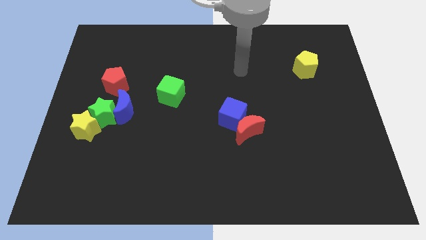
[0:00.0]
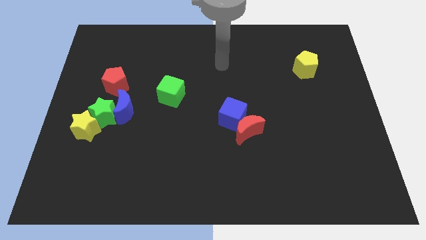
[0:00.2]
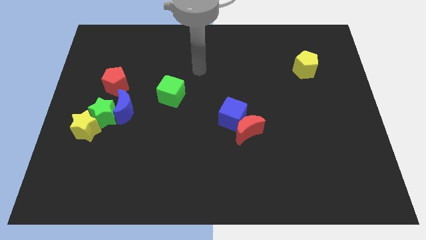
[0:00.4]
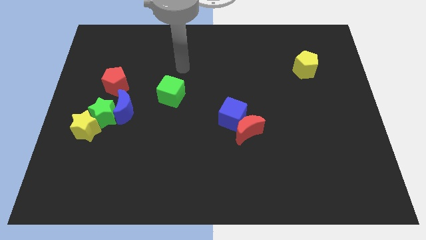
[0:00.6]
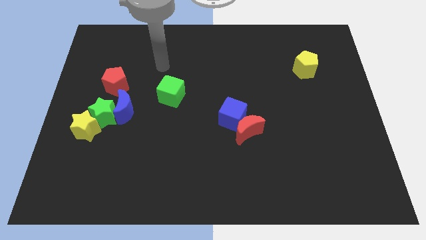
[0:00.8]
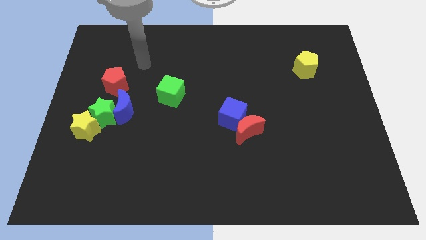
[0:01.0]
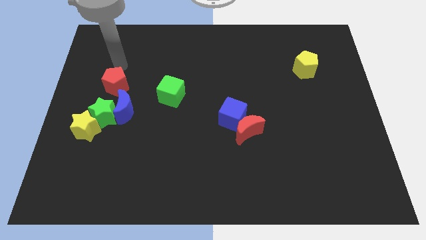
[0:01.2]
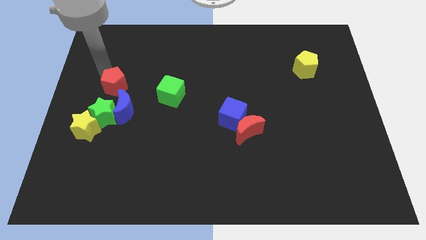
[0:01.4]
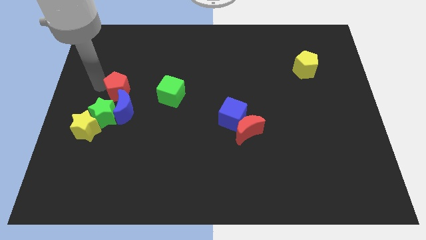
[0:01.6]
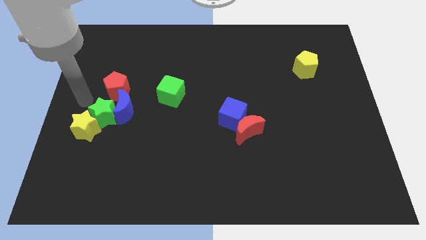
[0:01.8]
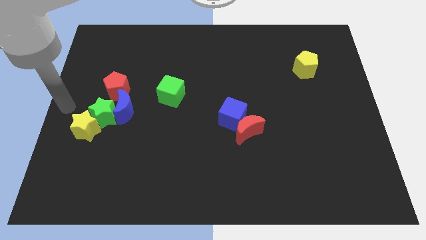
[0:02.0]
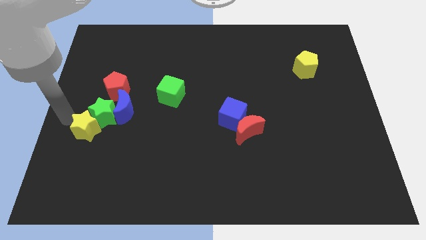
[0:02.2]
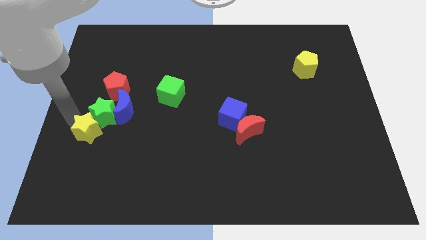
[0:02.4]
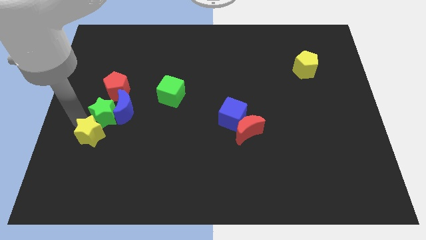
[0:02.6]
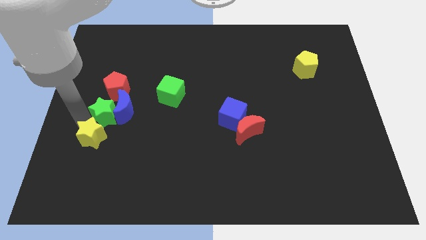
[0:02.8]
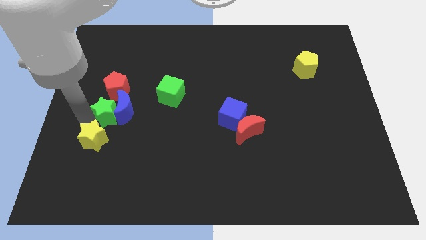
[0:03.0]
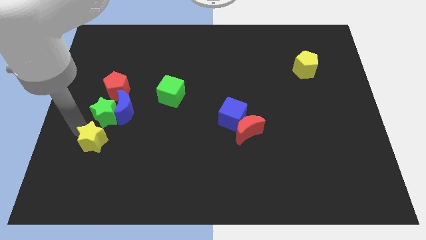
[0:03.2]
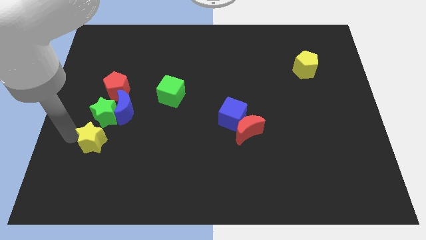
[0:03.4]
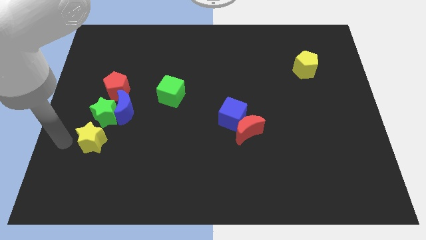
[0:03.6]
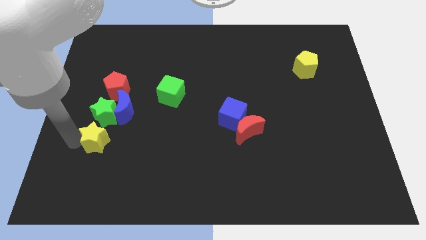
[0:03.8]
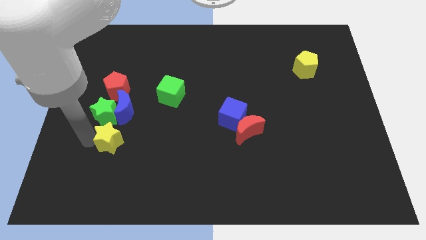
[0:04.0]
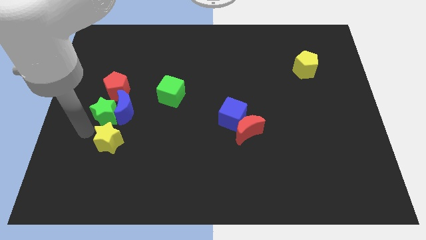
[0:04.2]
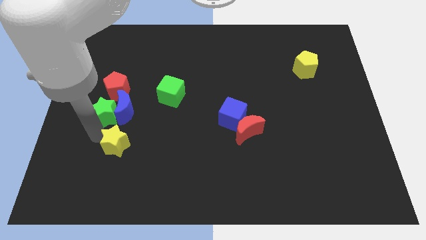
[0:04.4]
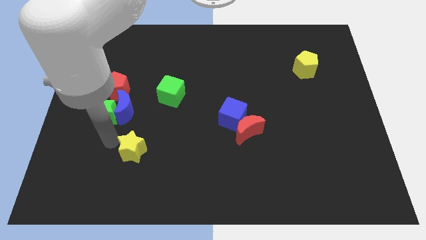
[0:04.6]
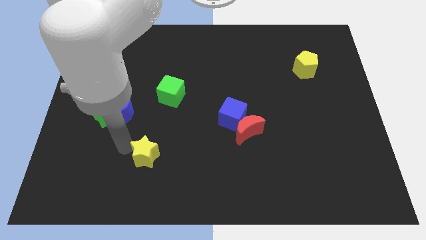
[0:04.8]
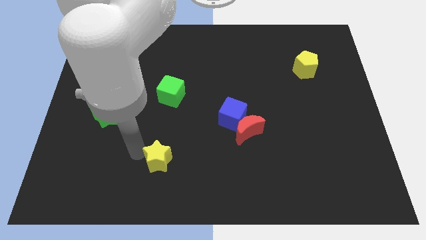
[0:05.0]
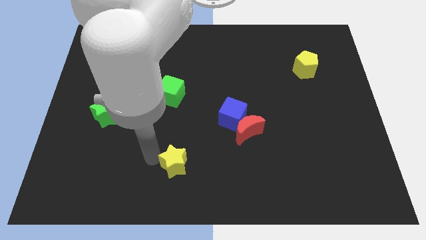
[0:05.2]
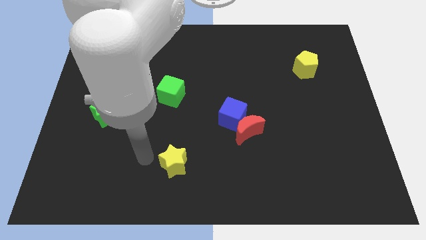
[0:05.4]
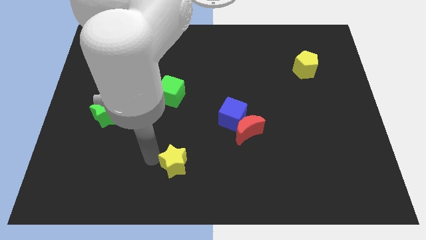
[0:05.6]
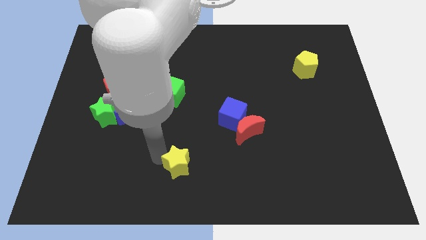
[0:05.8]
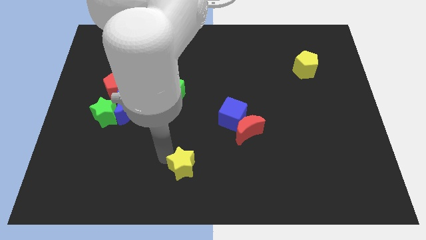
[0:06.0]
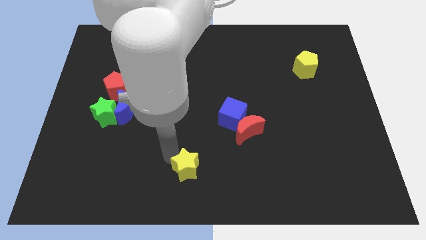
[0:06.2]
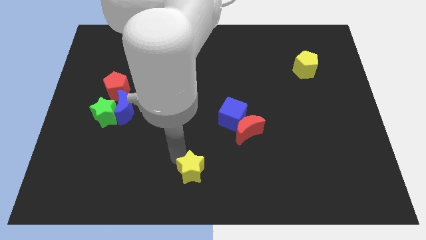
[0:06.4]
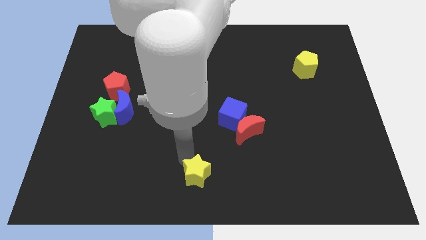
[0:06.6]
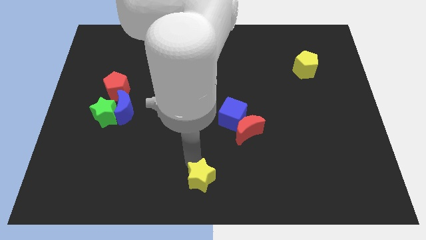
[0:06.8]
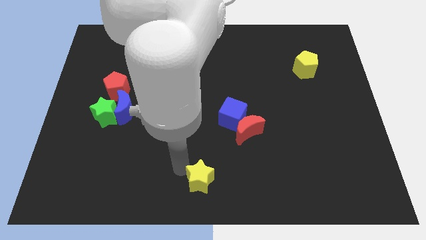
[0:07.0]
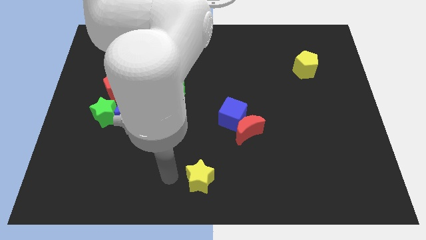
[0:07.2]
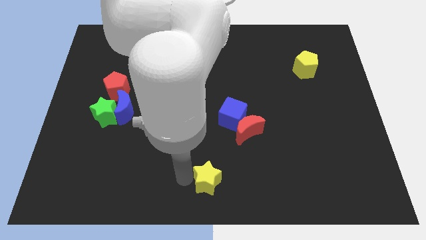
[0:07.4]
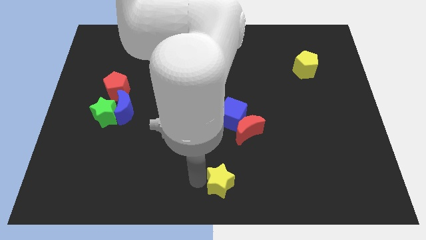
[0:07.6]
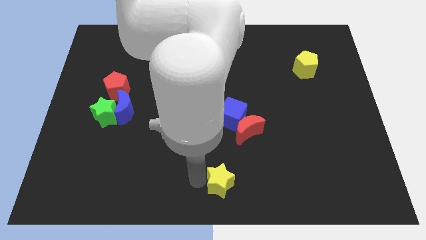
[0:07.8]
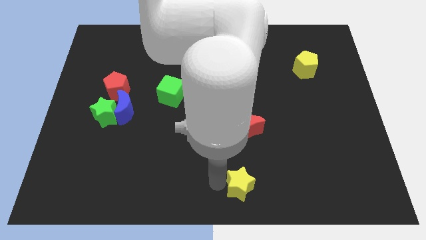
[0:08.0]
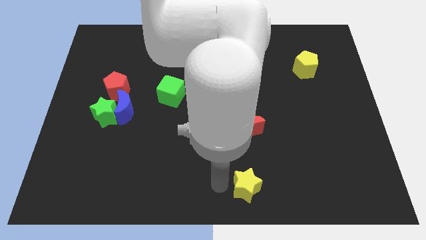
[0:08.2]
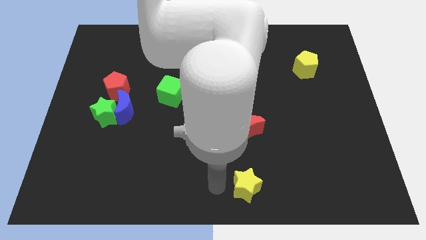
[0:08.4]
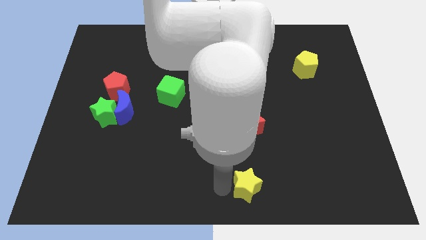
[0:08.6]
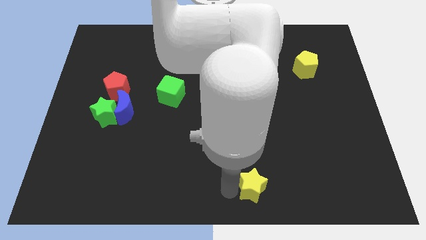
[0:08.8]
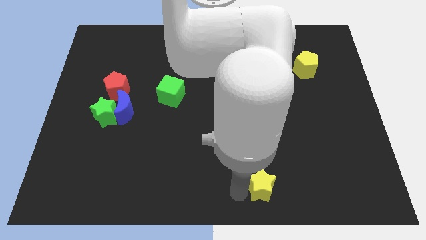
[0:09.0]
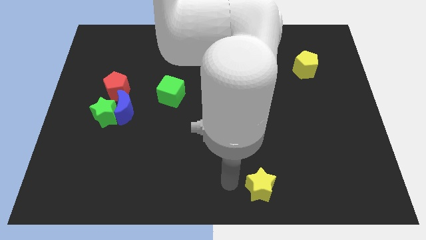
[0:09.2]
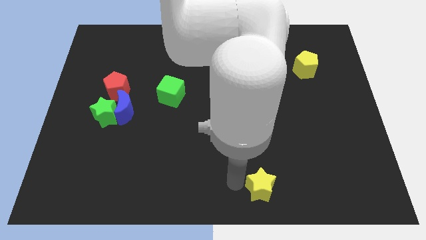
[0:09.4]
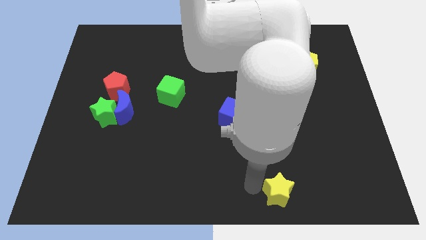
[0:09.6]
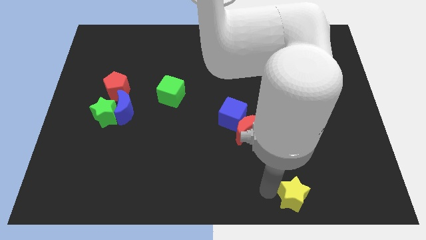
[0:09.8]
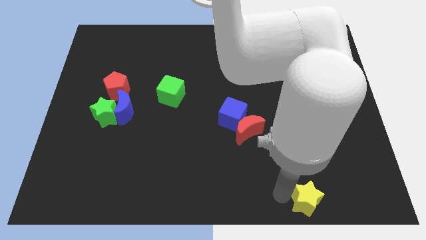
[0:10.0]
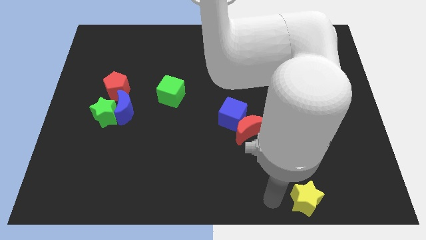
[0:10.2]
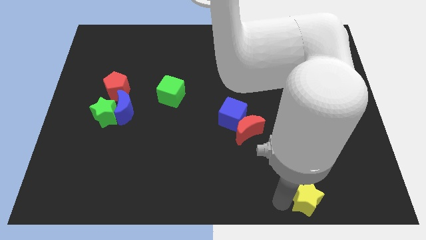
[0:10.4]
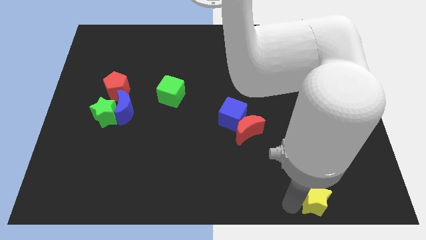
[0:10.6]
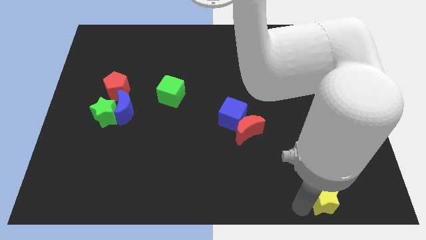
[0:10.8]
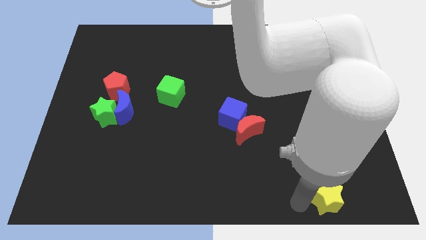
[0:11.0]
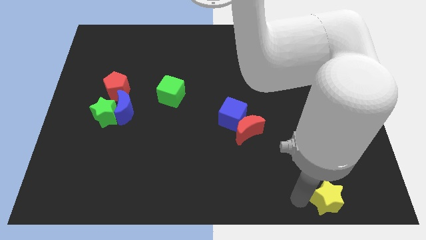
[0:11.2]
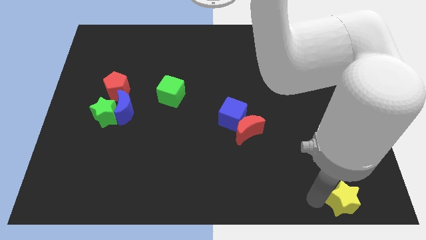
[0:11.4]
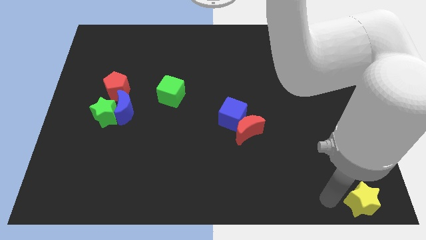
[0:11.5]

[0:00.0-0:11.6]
move the yellow star to the lower right corner
